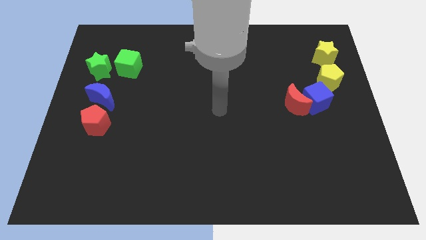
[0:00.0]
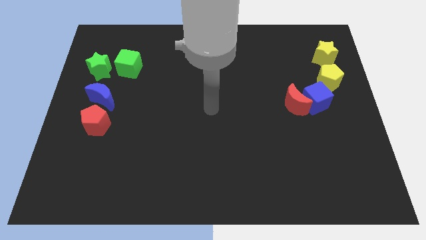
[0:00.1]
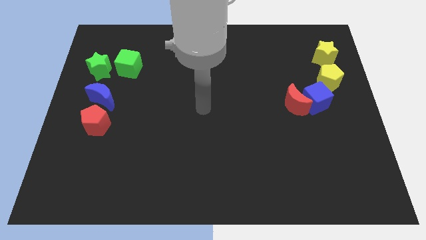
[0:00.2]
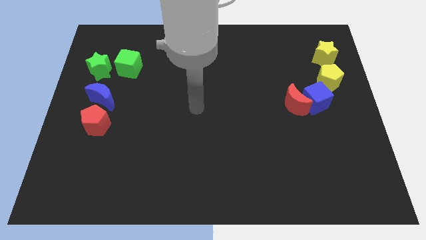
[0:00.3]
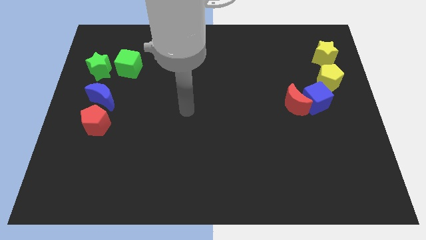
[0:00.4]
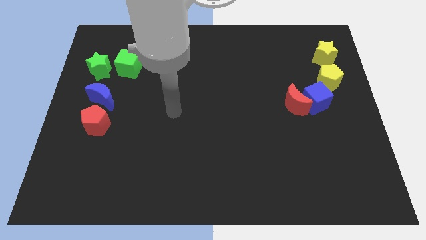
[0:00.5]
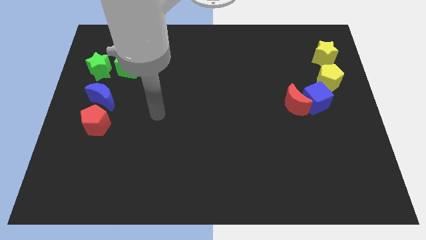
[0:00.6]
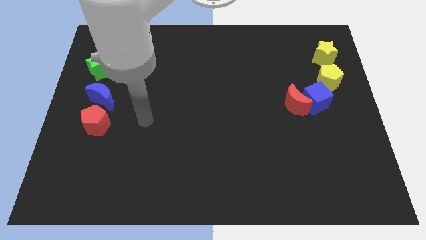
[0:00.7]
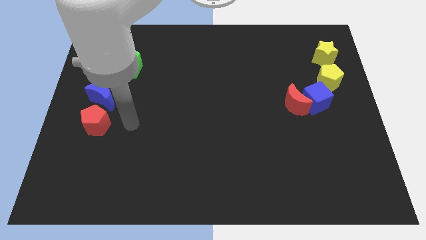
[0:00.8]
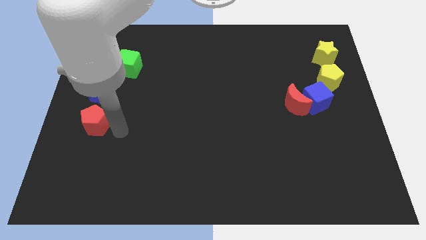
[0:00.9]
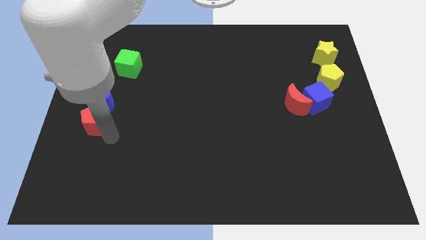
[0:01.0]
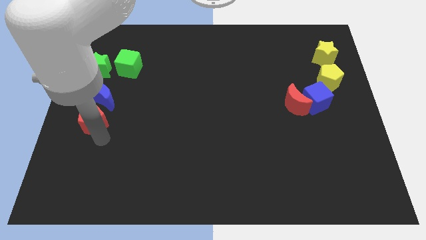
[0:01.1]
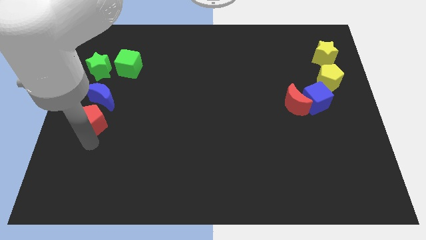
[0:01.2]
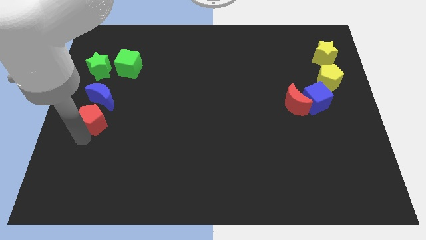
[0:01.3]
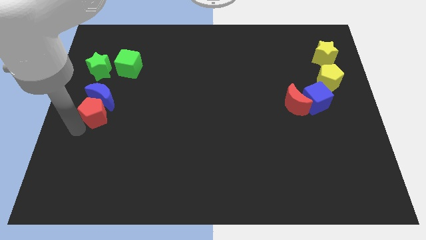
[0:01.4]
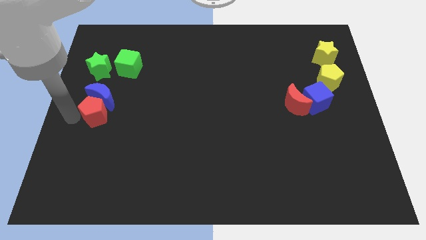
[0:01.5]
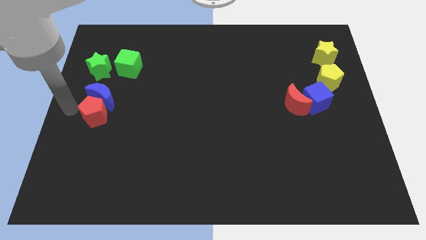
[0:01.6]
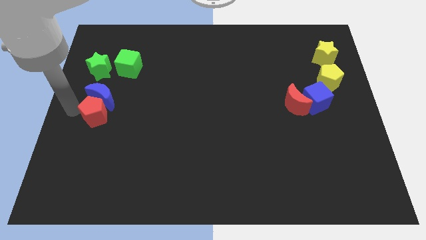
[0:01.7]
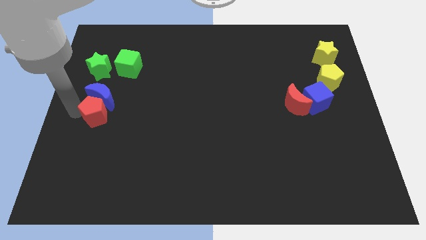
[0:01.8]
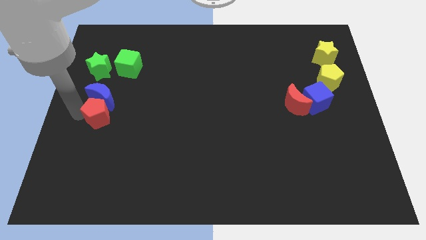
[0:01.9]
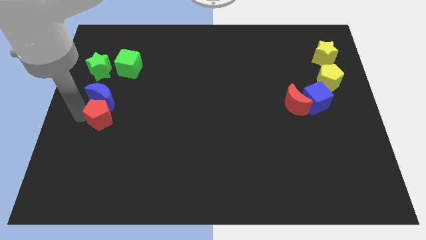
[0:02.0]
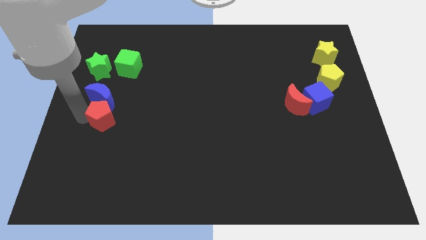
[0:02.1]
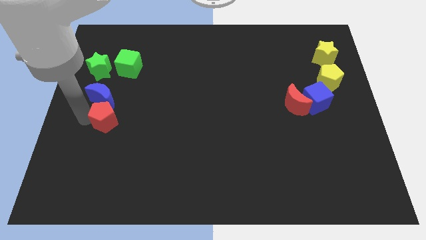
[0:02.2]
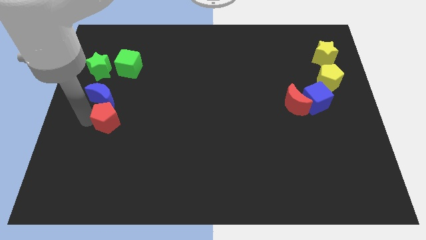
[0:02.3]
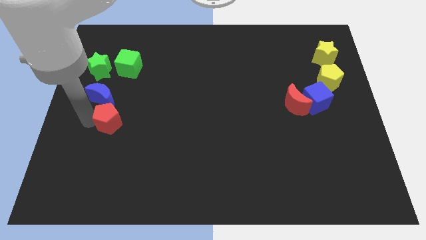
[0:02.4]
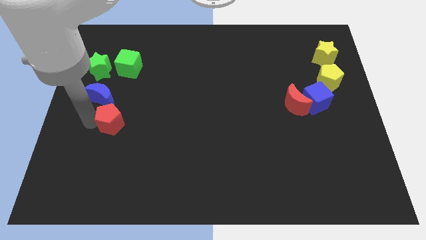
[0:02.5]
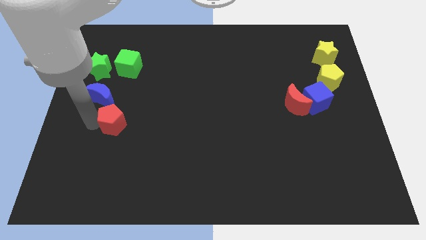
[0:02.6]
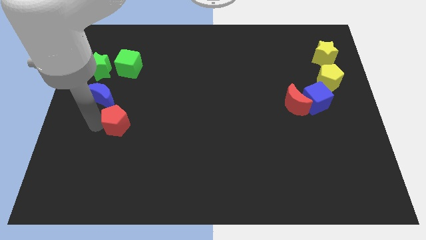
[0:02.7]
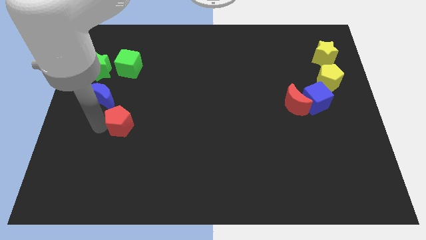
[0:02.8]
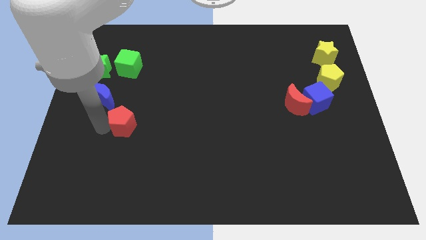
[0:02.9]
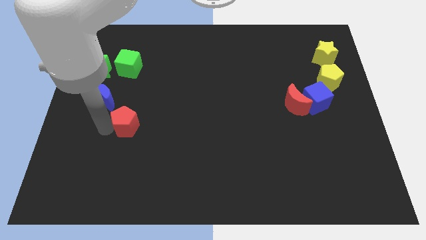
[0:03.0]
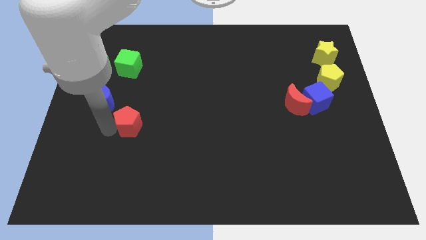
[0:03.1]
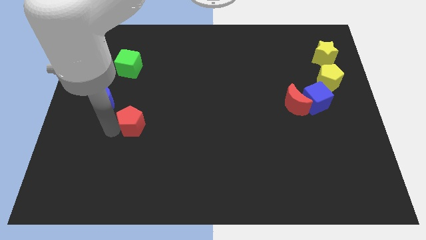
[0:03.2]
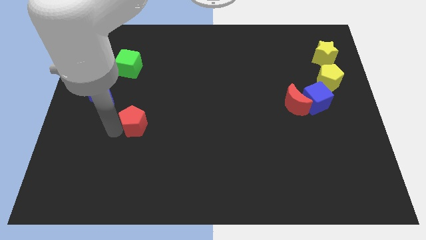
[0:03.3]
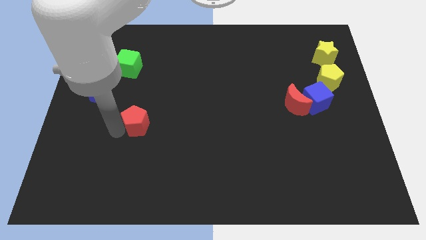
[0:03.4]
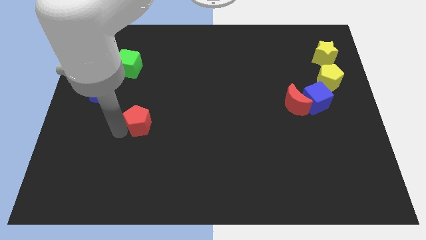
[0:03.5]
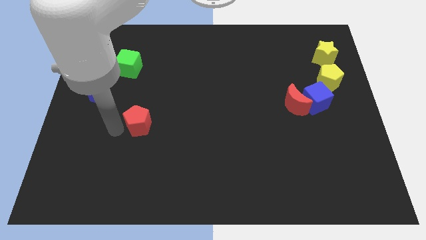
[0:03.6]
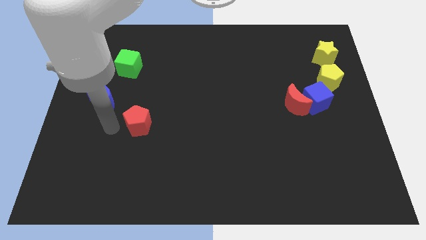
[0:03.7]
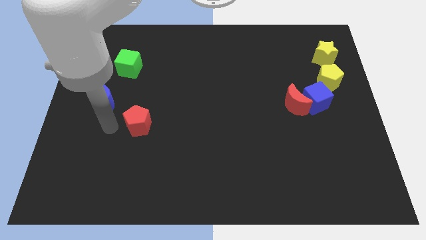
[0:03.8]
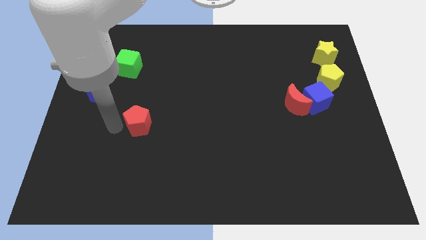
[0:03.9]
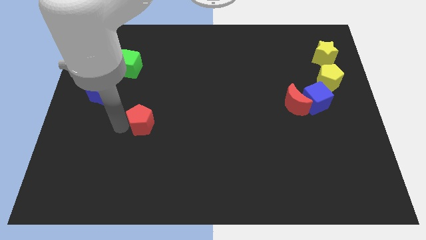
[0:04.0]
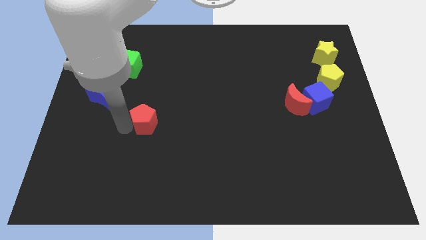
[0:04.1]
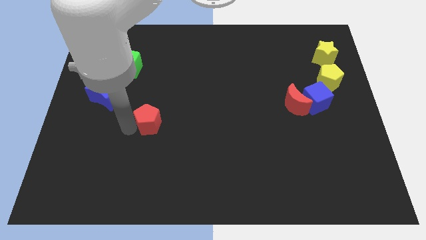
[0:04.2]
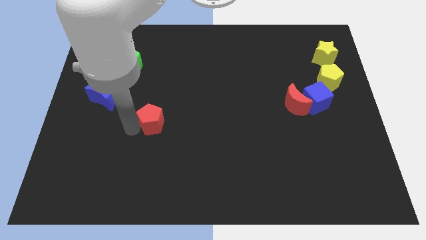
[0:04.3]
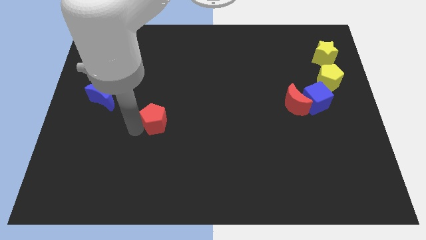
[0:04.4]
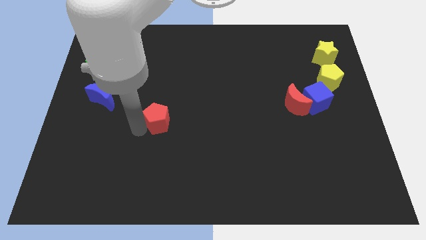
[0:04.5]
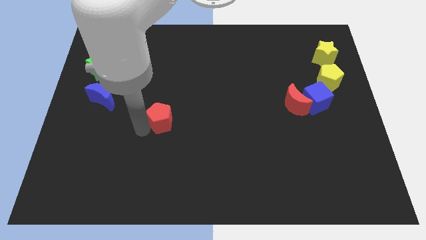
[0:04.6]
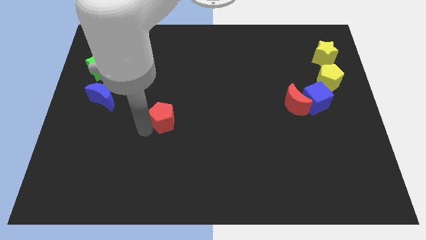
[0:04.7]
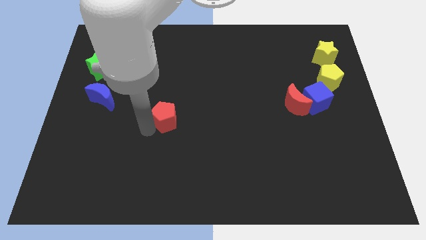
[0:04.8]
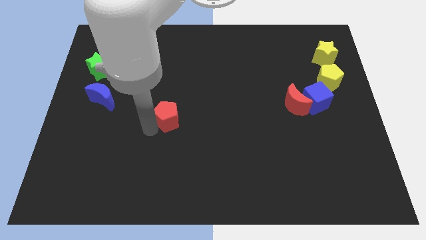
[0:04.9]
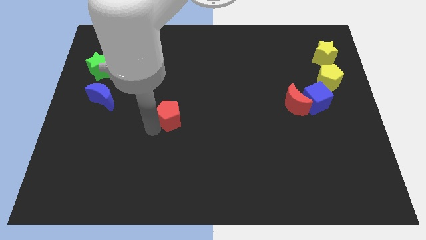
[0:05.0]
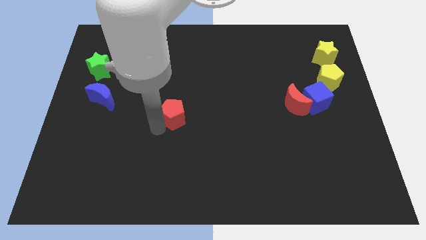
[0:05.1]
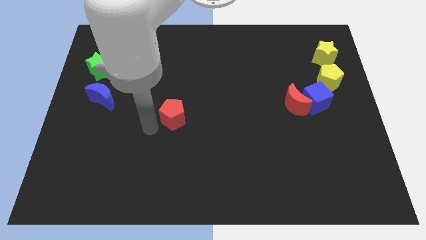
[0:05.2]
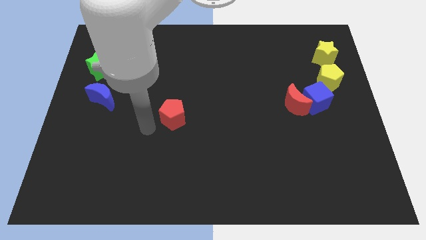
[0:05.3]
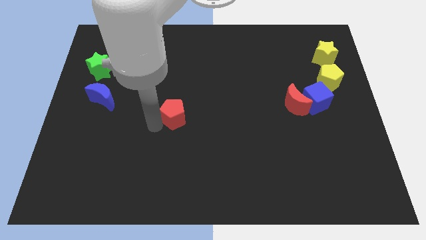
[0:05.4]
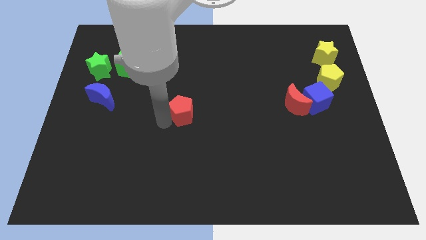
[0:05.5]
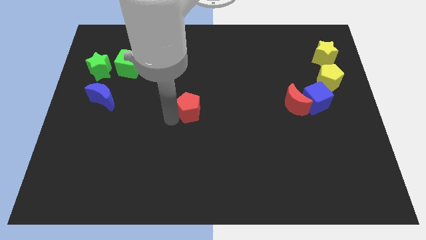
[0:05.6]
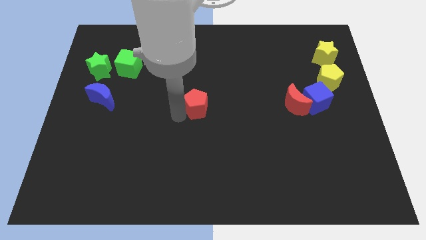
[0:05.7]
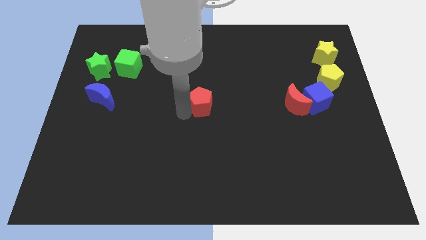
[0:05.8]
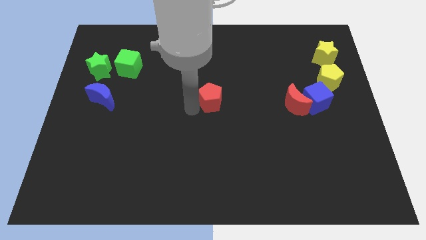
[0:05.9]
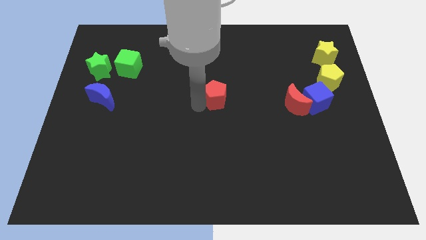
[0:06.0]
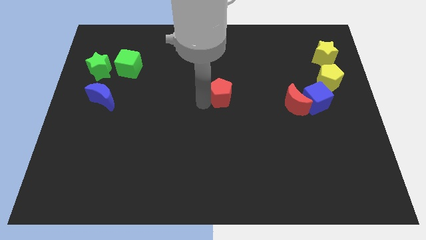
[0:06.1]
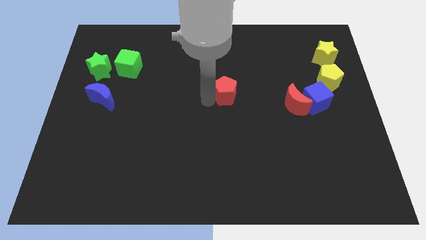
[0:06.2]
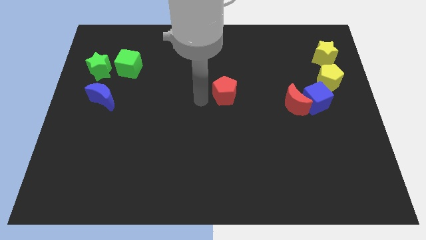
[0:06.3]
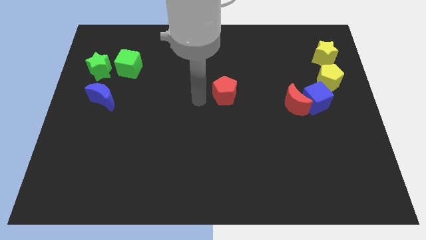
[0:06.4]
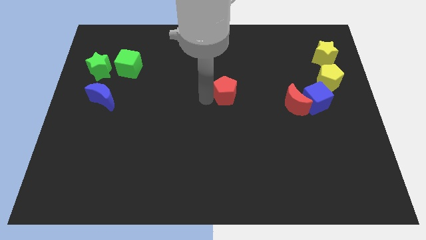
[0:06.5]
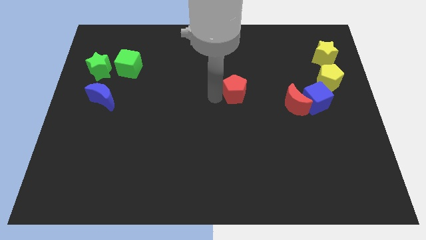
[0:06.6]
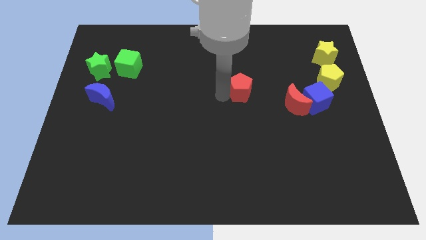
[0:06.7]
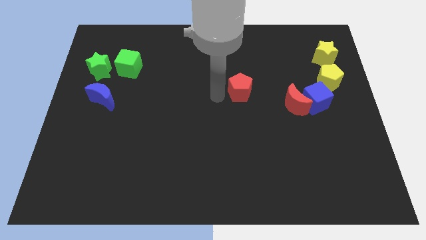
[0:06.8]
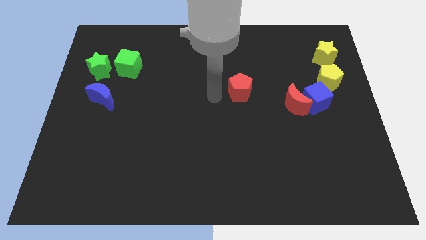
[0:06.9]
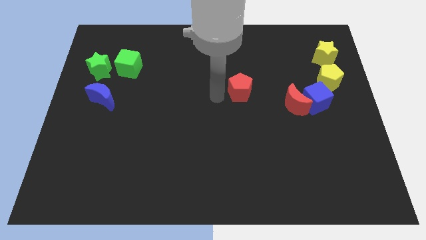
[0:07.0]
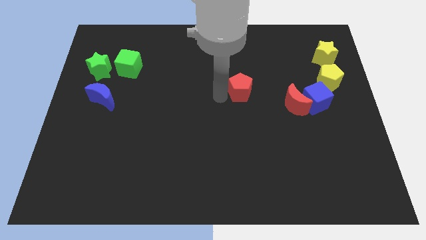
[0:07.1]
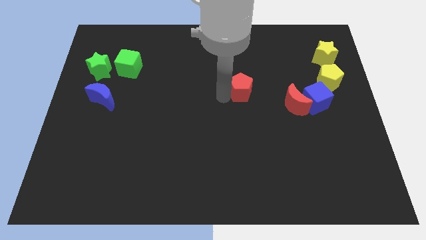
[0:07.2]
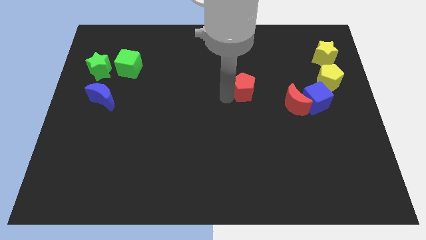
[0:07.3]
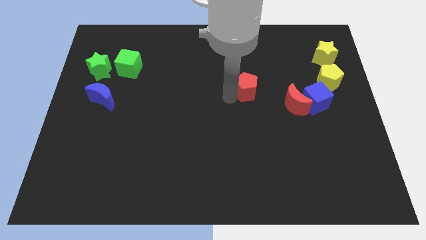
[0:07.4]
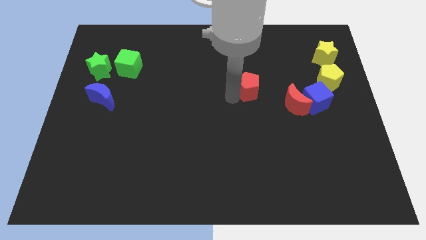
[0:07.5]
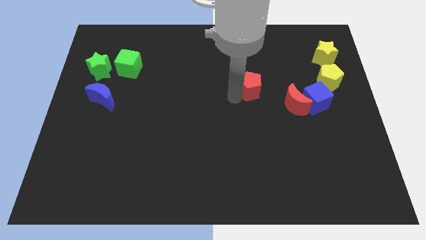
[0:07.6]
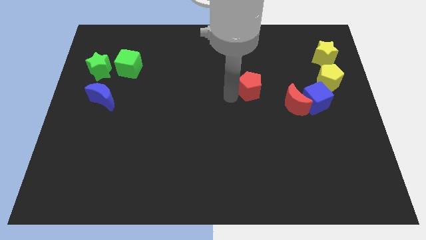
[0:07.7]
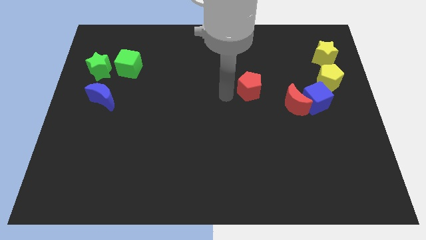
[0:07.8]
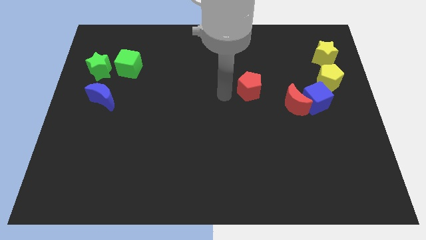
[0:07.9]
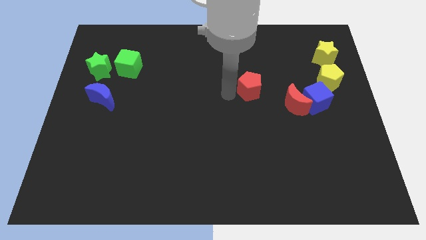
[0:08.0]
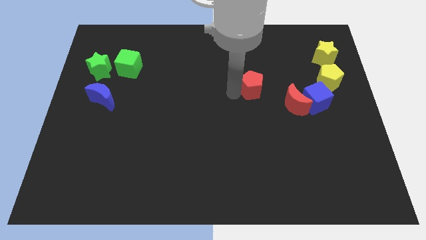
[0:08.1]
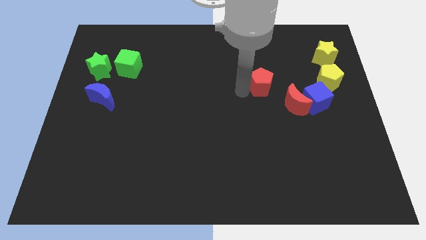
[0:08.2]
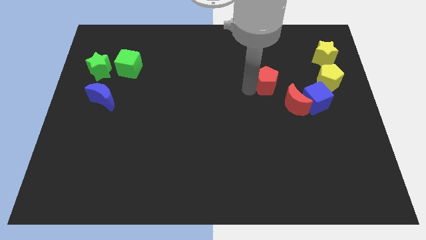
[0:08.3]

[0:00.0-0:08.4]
slide the red pentagon to the left side of the yellow pentagon
